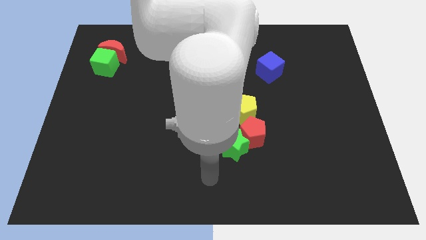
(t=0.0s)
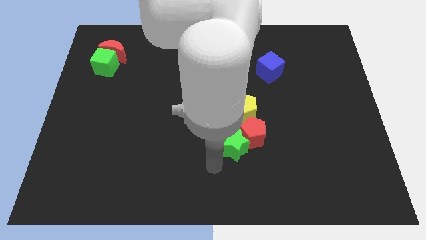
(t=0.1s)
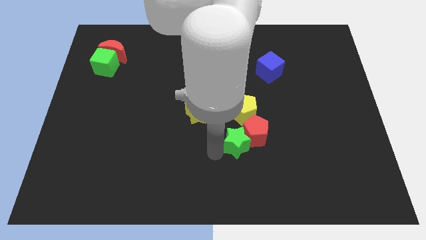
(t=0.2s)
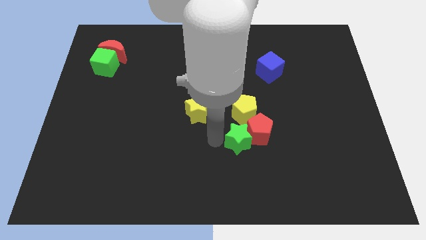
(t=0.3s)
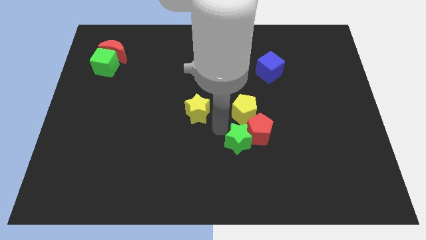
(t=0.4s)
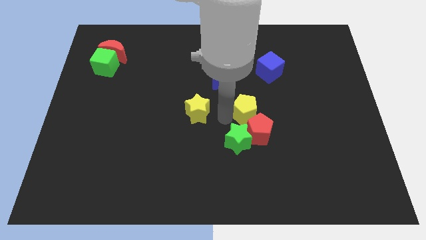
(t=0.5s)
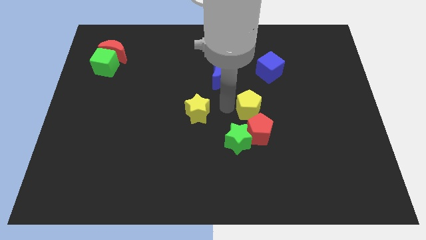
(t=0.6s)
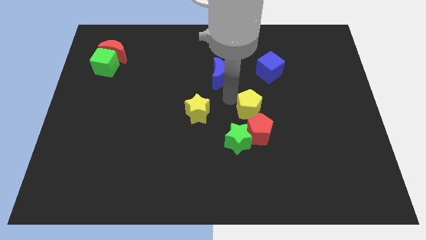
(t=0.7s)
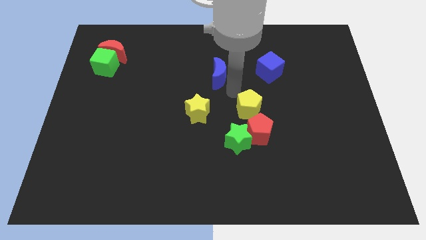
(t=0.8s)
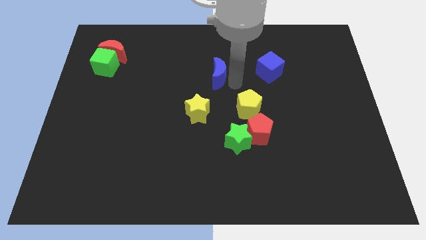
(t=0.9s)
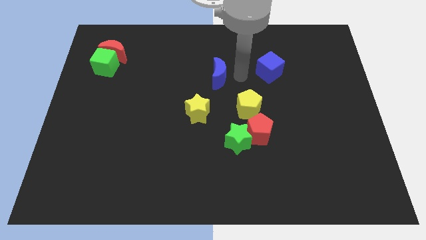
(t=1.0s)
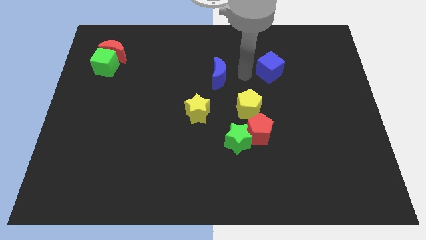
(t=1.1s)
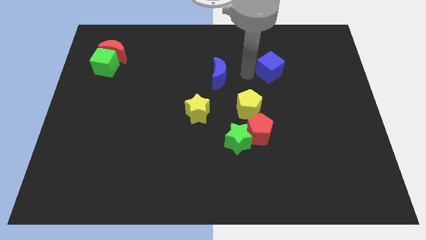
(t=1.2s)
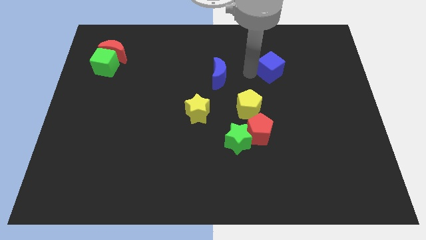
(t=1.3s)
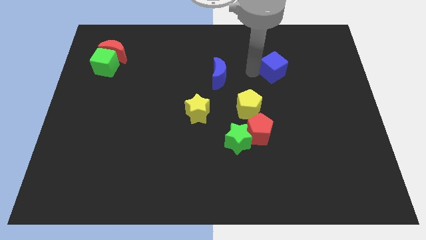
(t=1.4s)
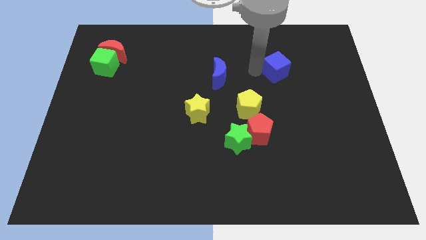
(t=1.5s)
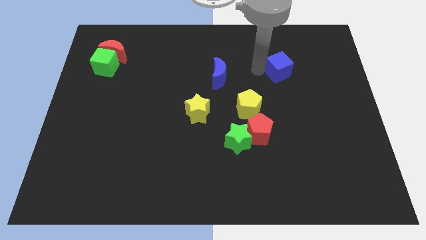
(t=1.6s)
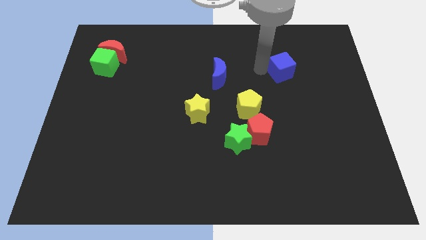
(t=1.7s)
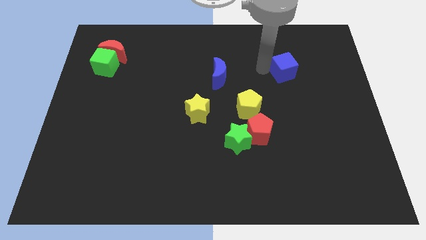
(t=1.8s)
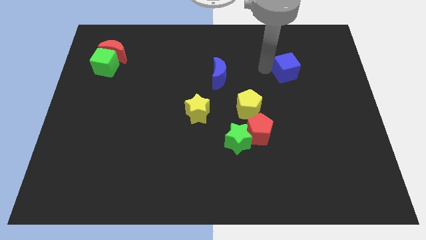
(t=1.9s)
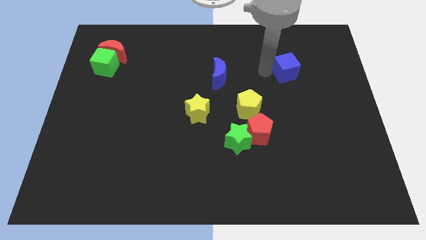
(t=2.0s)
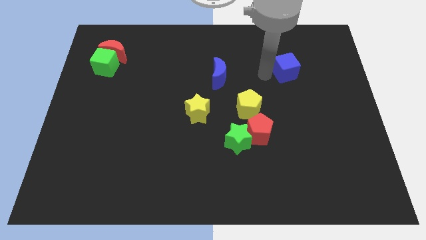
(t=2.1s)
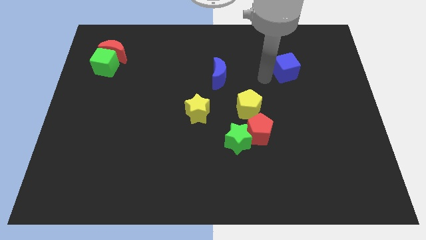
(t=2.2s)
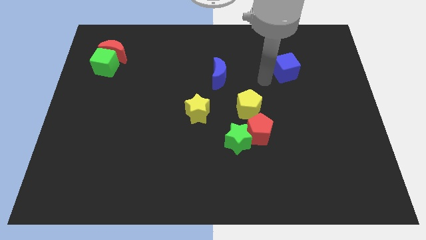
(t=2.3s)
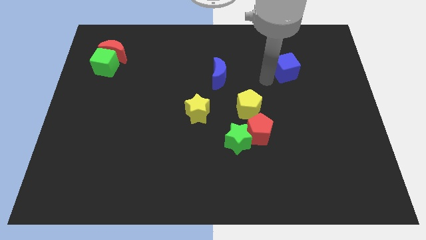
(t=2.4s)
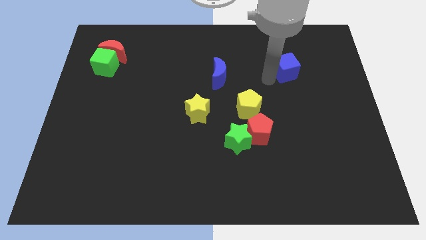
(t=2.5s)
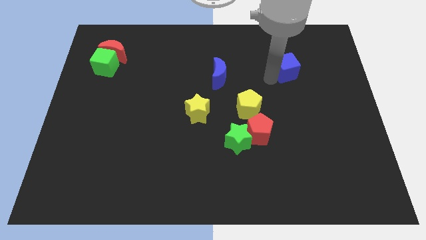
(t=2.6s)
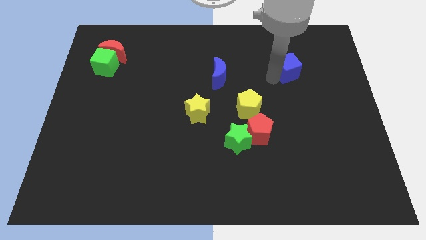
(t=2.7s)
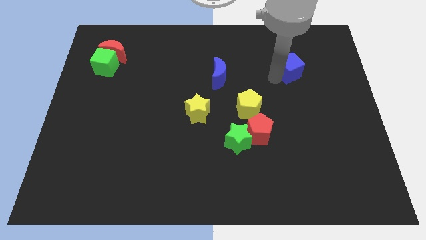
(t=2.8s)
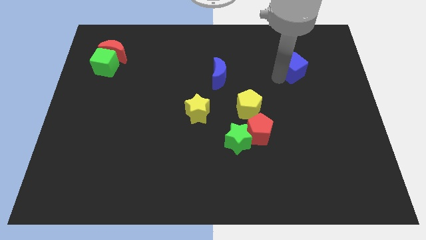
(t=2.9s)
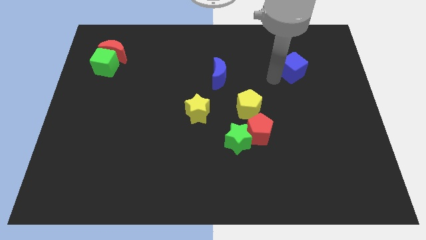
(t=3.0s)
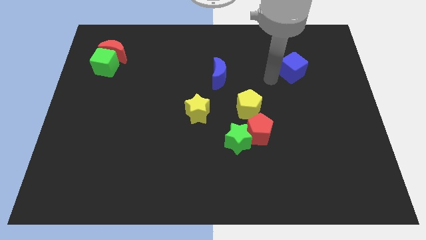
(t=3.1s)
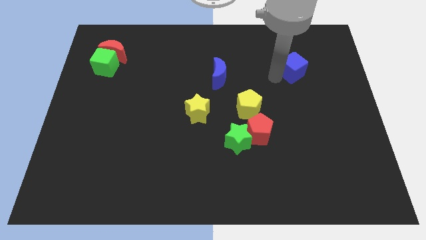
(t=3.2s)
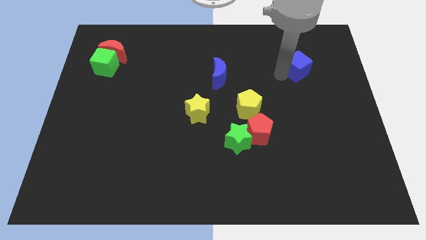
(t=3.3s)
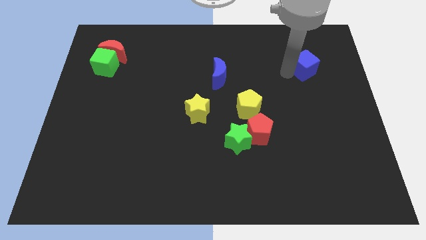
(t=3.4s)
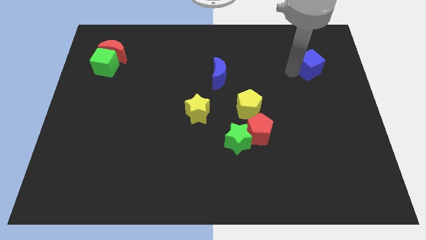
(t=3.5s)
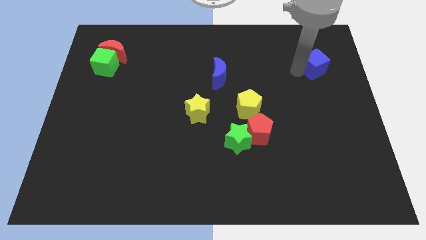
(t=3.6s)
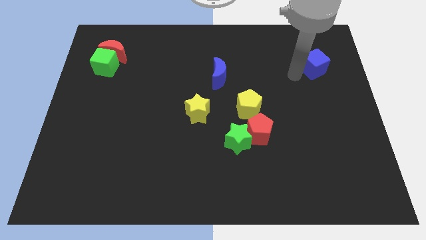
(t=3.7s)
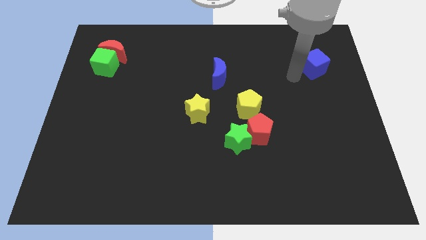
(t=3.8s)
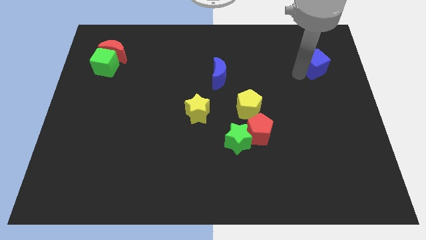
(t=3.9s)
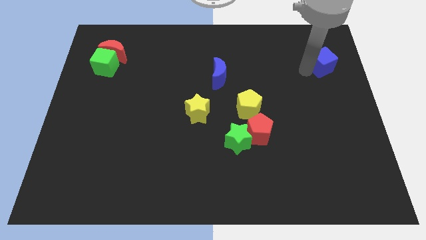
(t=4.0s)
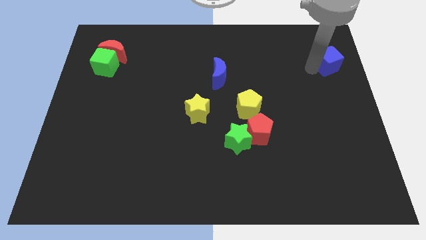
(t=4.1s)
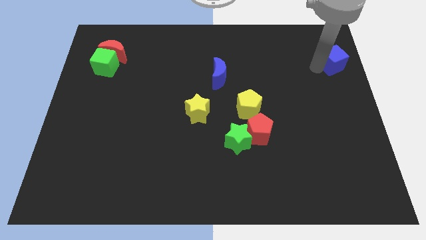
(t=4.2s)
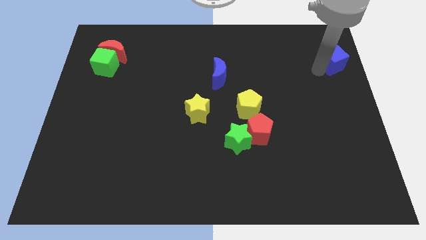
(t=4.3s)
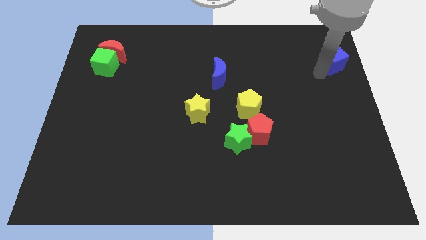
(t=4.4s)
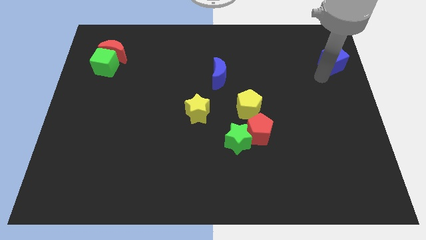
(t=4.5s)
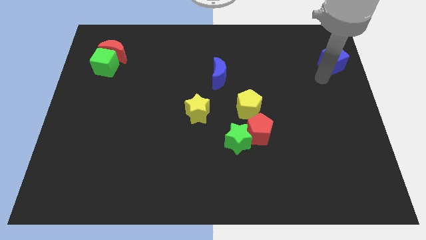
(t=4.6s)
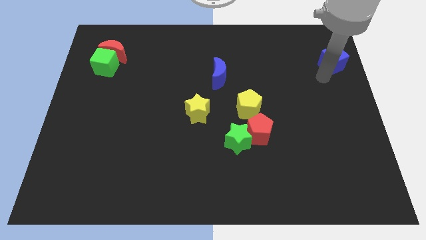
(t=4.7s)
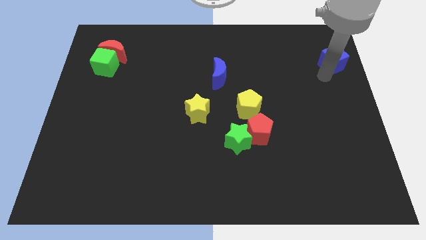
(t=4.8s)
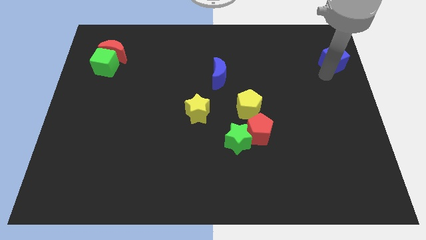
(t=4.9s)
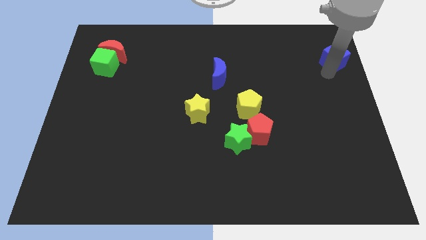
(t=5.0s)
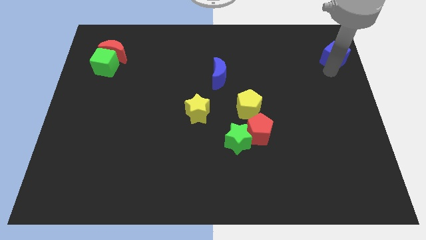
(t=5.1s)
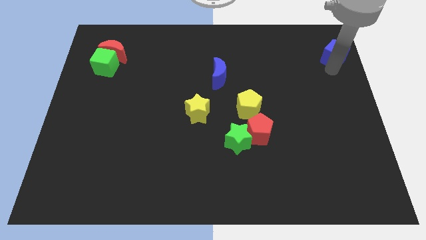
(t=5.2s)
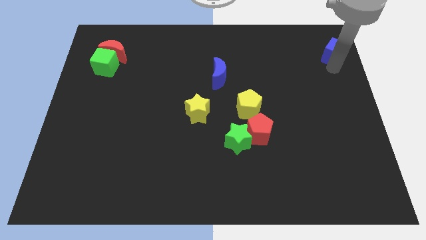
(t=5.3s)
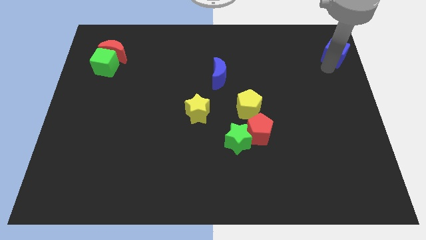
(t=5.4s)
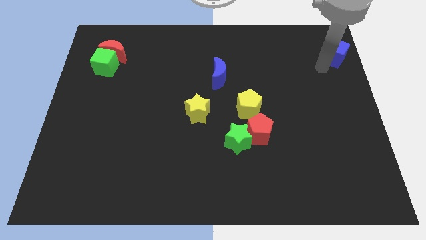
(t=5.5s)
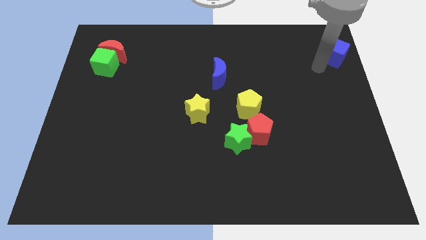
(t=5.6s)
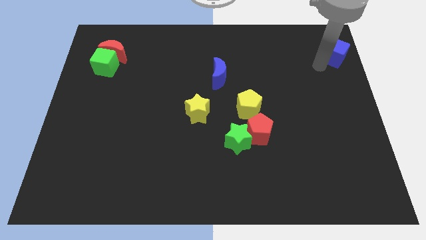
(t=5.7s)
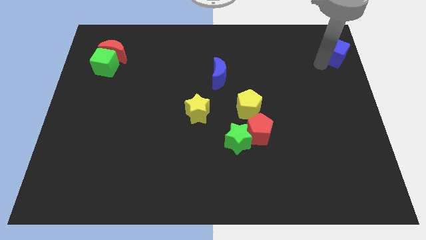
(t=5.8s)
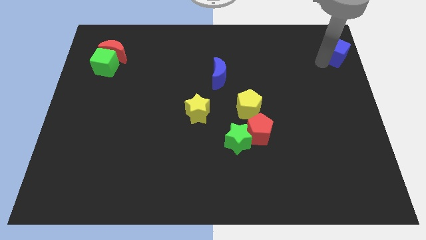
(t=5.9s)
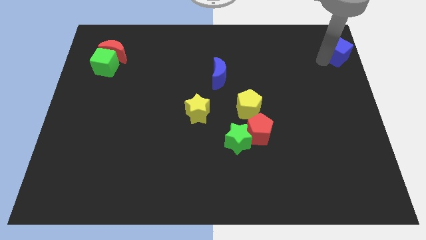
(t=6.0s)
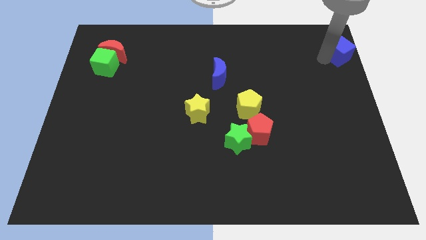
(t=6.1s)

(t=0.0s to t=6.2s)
slide the blue cube to the top right of the board
